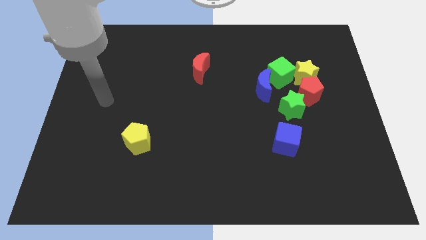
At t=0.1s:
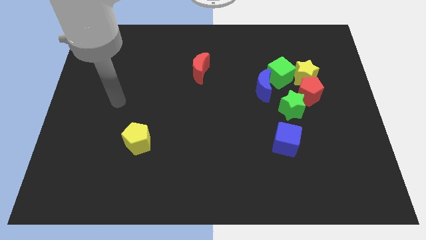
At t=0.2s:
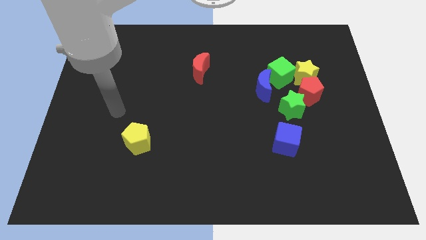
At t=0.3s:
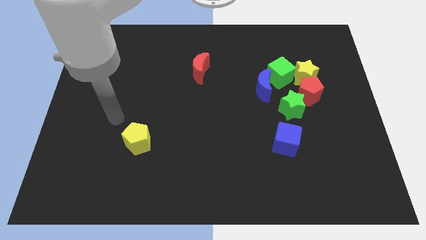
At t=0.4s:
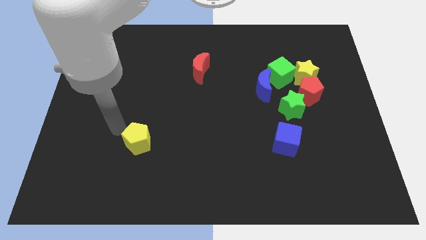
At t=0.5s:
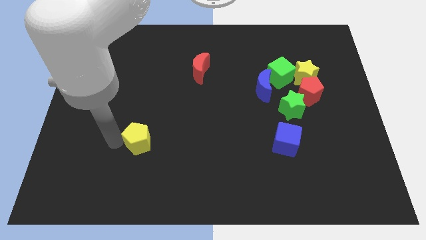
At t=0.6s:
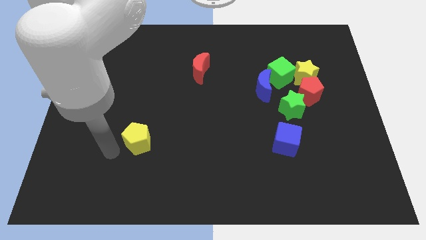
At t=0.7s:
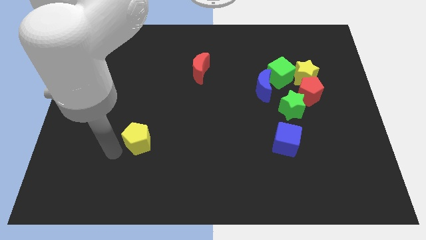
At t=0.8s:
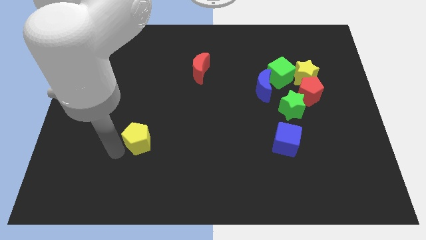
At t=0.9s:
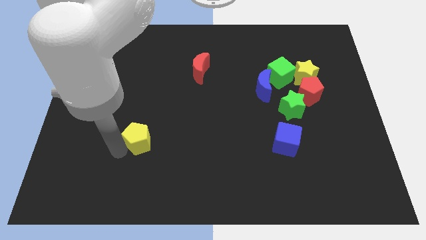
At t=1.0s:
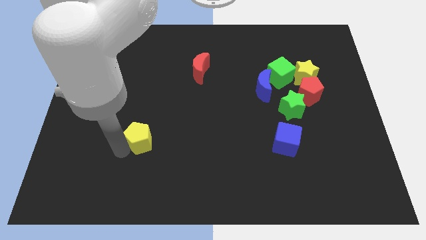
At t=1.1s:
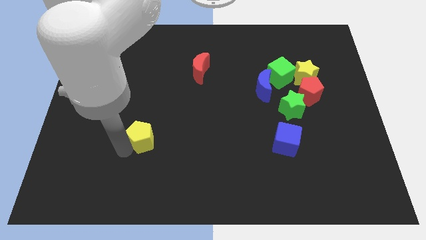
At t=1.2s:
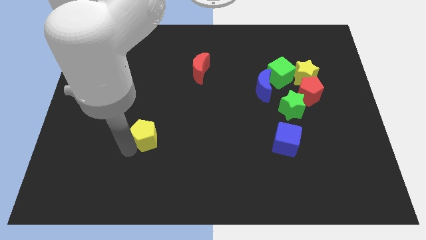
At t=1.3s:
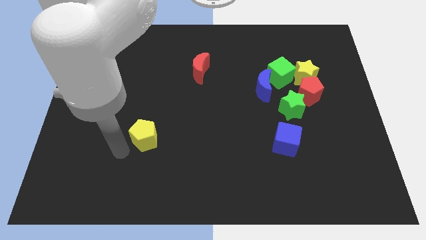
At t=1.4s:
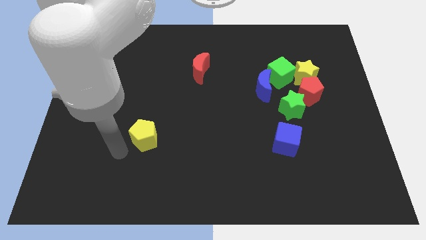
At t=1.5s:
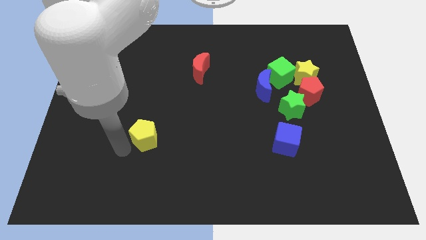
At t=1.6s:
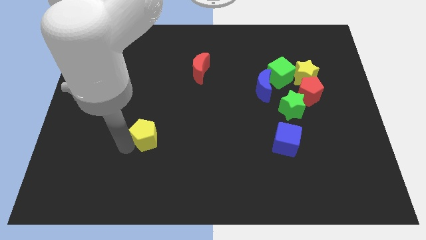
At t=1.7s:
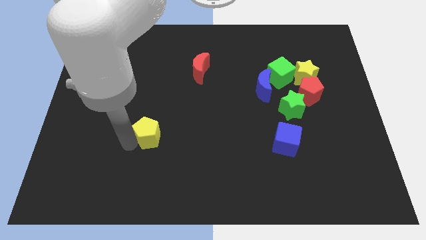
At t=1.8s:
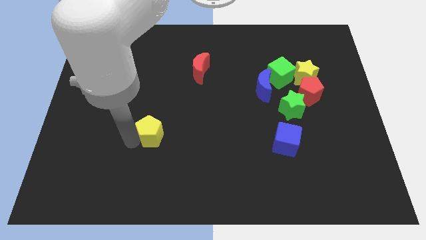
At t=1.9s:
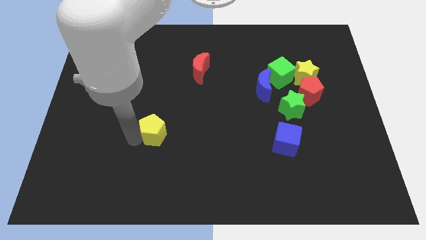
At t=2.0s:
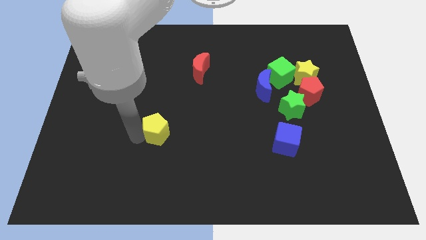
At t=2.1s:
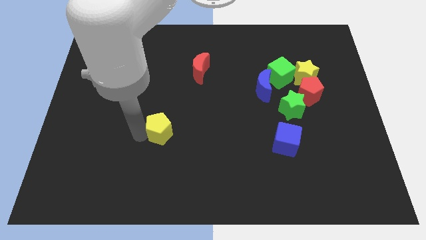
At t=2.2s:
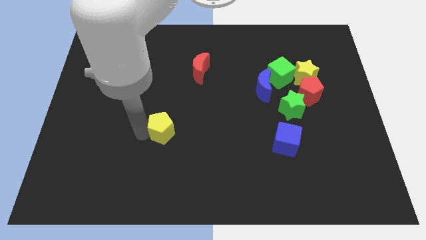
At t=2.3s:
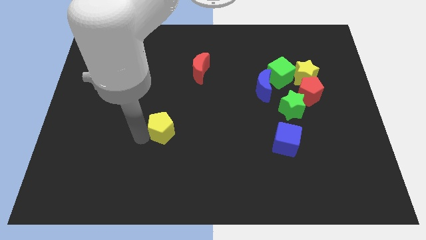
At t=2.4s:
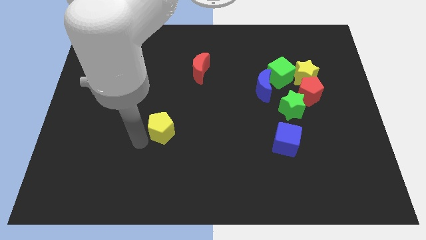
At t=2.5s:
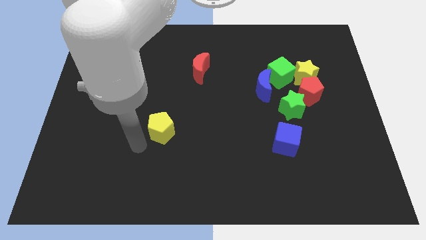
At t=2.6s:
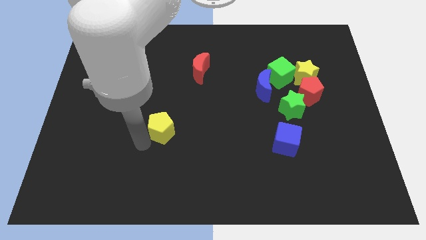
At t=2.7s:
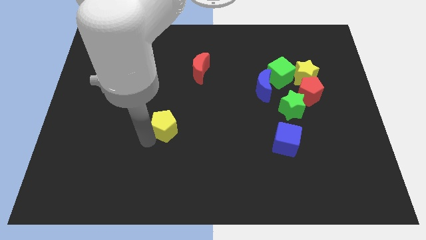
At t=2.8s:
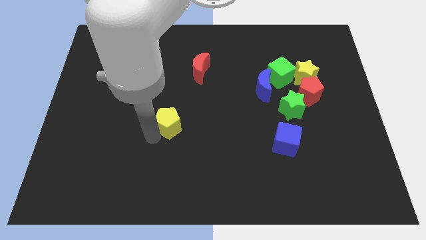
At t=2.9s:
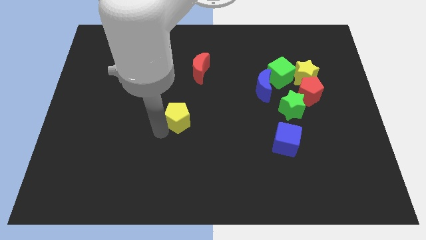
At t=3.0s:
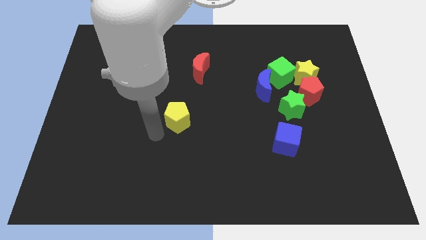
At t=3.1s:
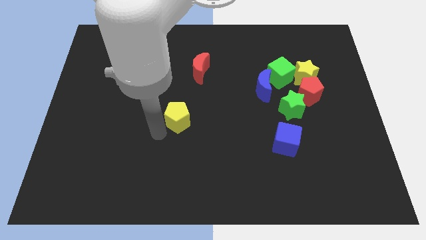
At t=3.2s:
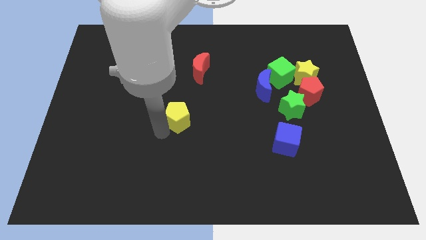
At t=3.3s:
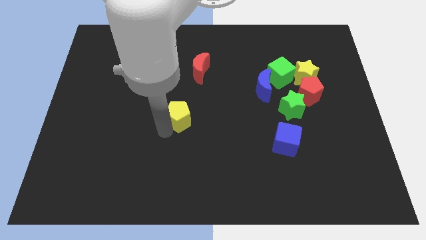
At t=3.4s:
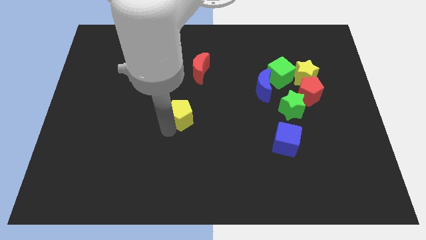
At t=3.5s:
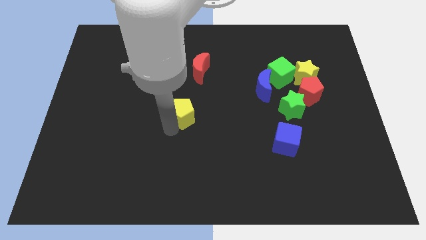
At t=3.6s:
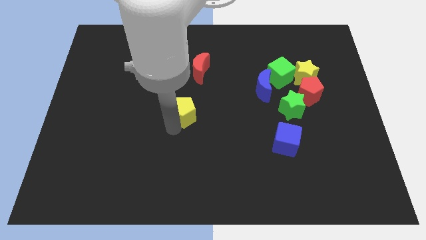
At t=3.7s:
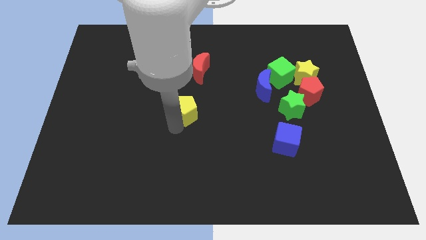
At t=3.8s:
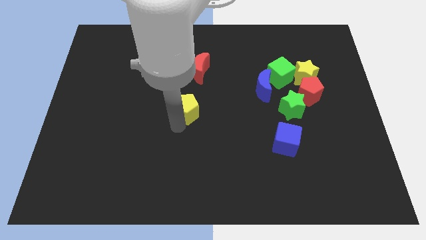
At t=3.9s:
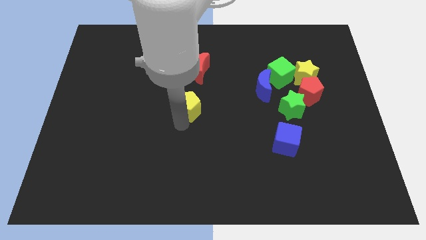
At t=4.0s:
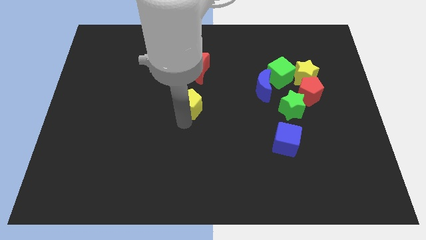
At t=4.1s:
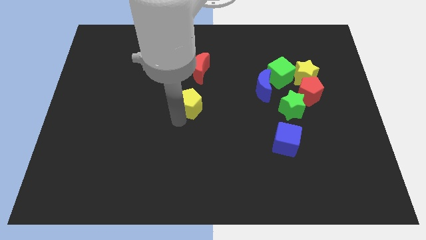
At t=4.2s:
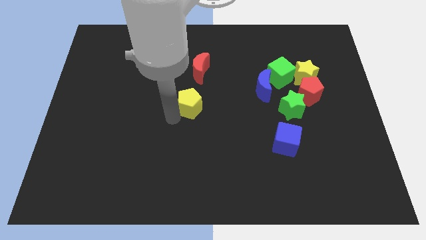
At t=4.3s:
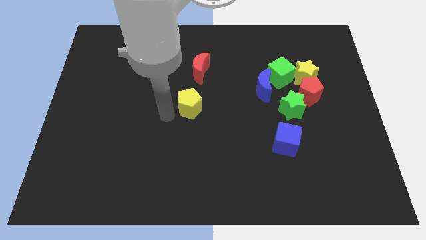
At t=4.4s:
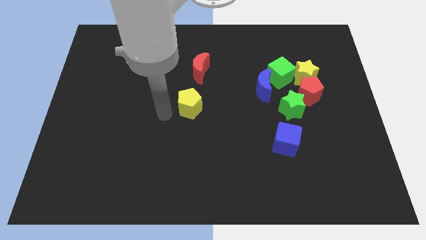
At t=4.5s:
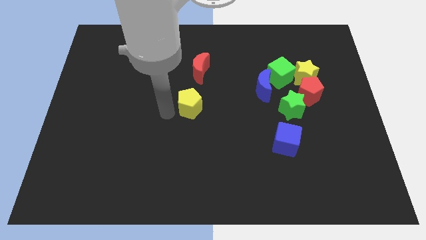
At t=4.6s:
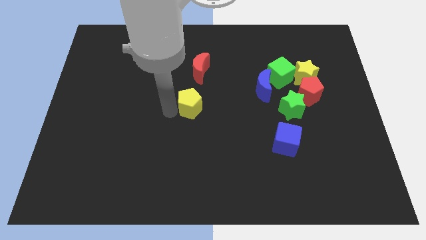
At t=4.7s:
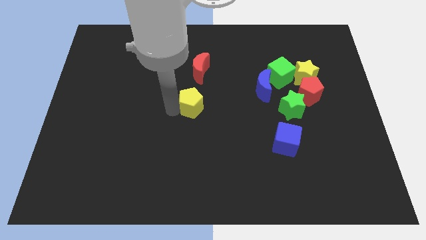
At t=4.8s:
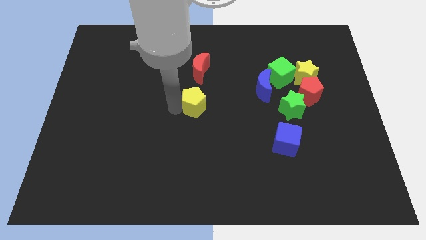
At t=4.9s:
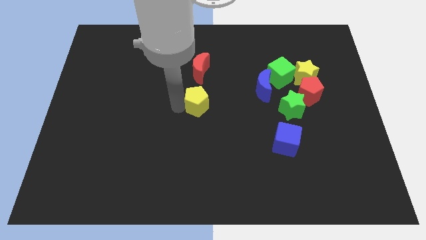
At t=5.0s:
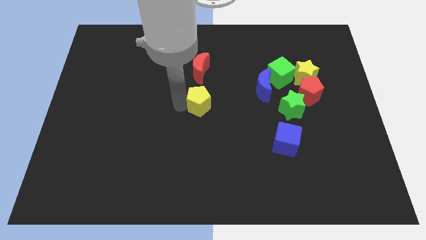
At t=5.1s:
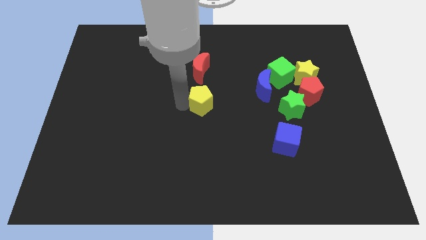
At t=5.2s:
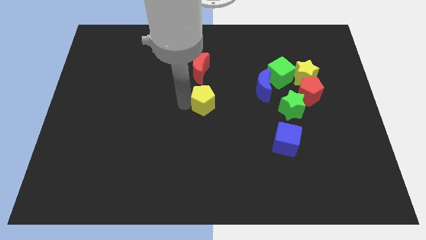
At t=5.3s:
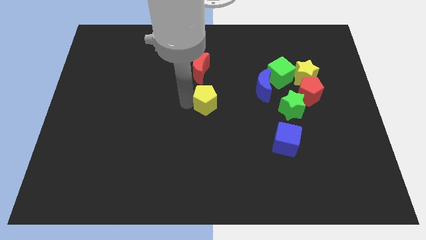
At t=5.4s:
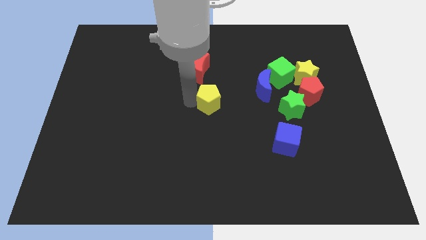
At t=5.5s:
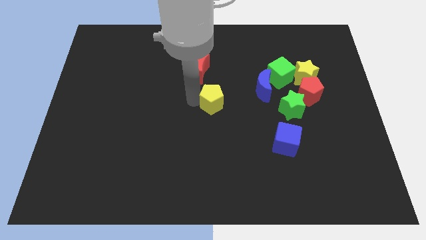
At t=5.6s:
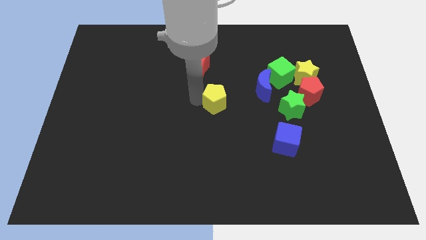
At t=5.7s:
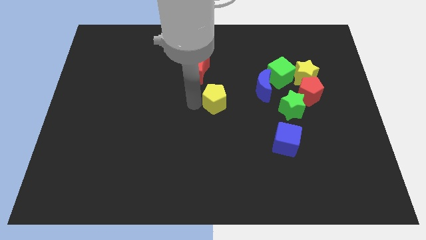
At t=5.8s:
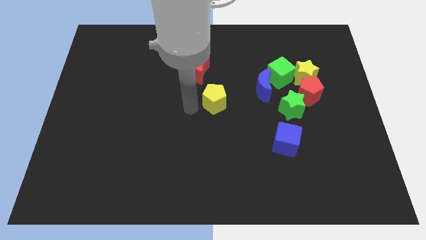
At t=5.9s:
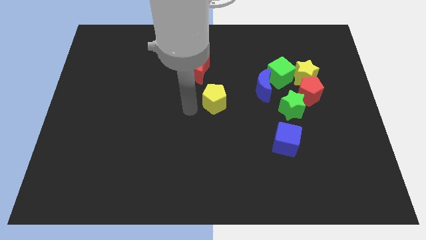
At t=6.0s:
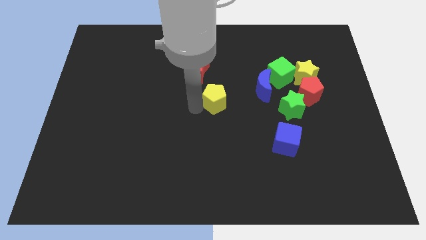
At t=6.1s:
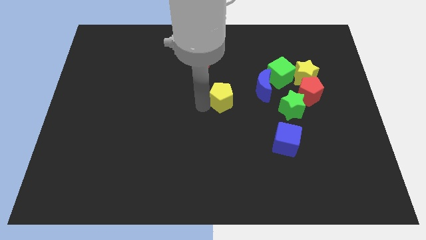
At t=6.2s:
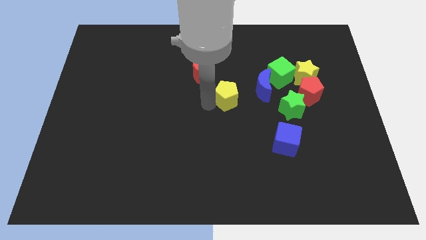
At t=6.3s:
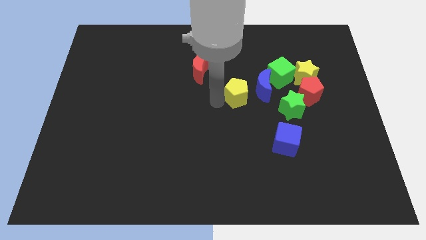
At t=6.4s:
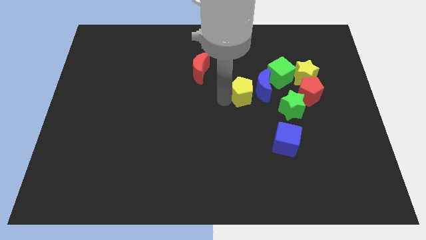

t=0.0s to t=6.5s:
slide the yellow pentagon next to the blue moon

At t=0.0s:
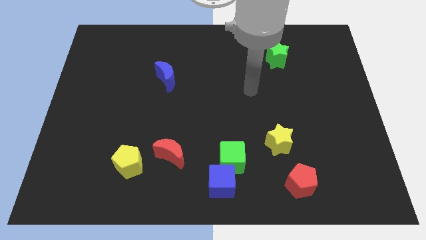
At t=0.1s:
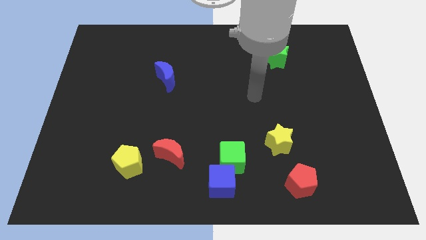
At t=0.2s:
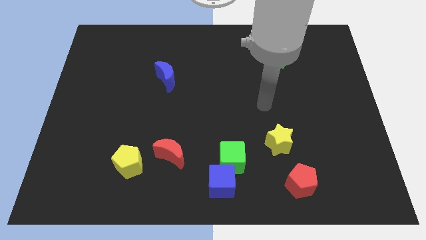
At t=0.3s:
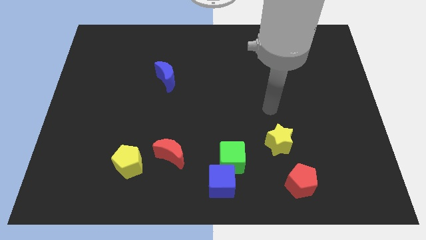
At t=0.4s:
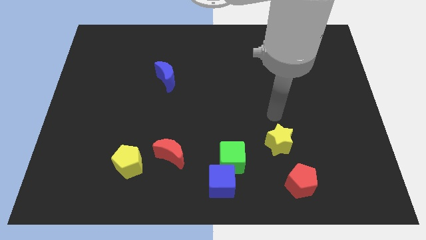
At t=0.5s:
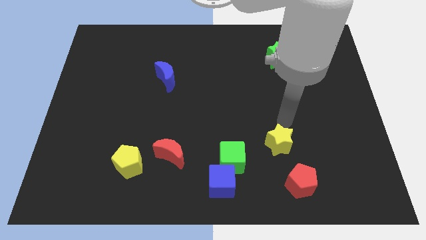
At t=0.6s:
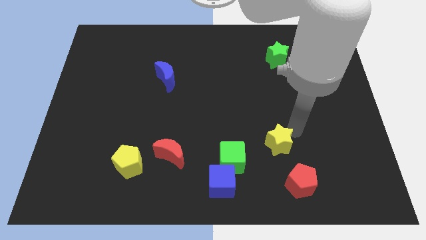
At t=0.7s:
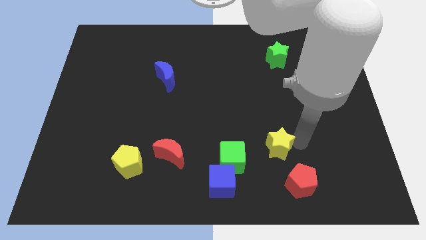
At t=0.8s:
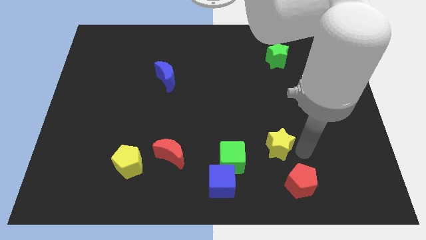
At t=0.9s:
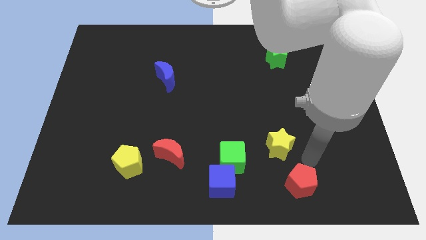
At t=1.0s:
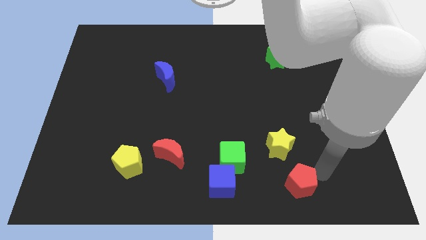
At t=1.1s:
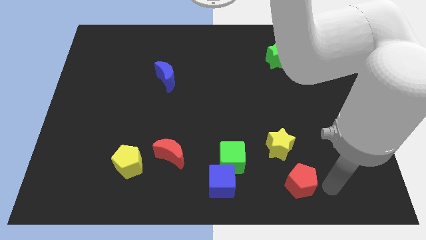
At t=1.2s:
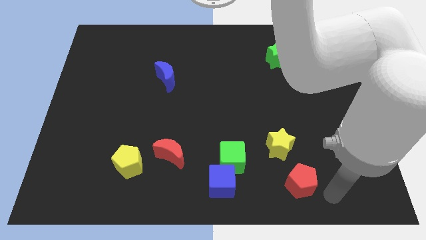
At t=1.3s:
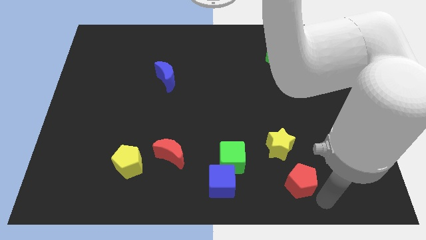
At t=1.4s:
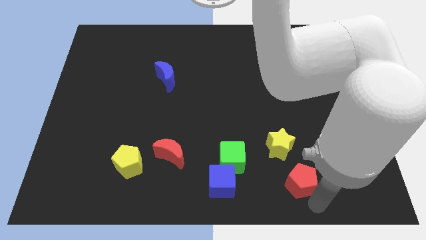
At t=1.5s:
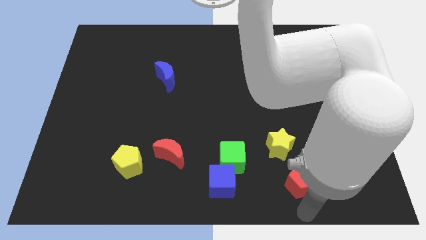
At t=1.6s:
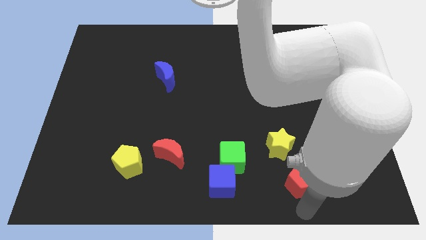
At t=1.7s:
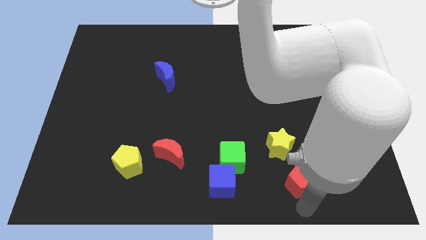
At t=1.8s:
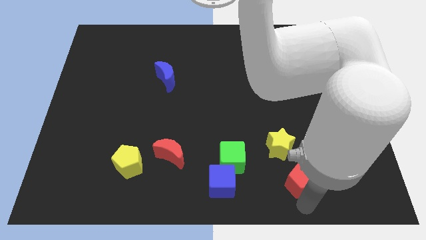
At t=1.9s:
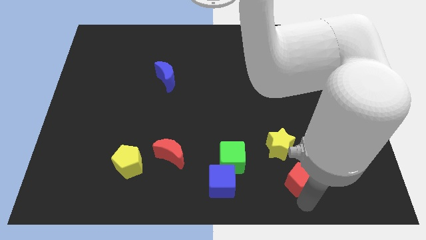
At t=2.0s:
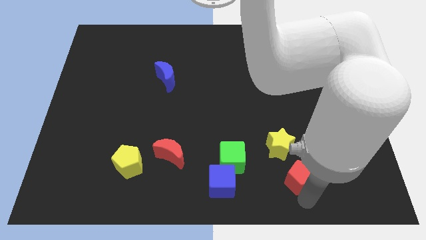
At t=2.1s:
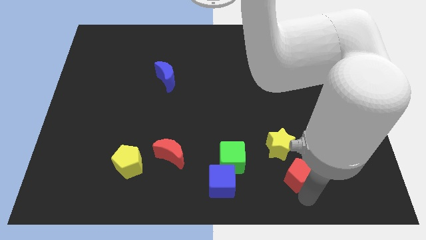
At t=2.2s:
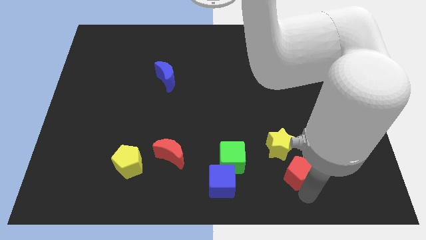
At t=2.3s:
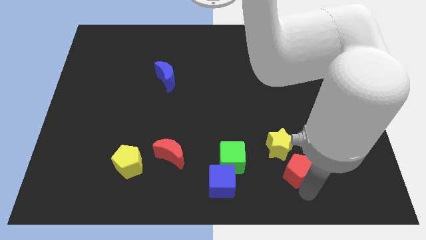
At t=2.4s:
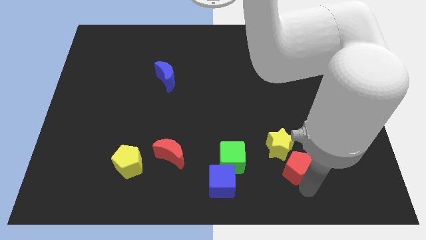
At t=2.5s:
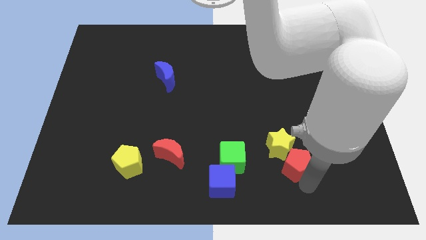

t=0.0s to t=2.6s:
put the red pentagon to the yellow star
